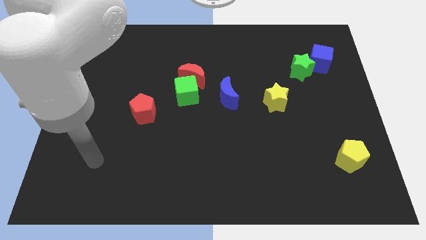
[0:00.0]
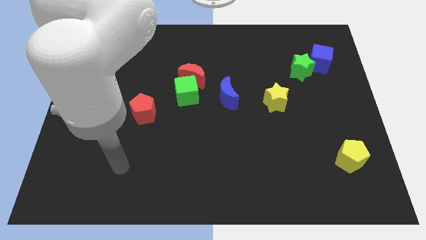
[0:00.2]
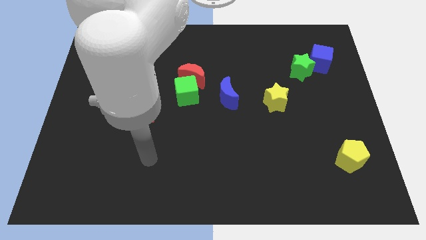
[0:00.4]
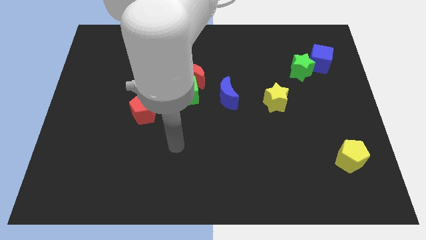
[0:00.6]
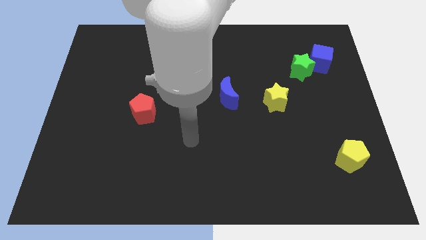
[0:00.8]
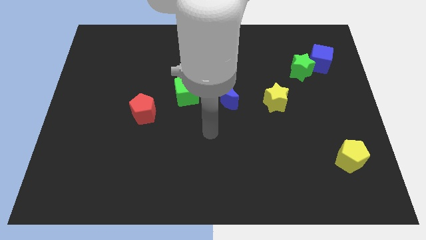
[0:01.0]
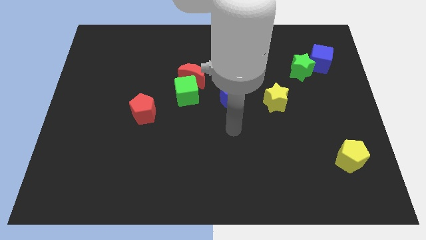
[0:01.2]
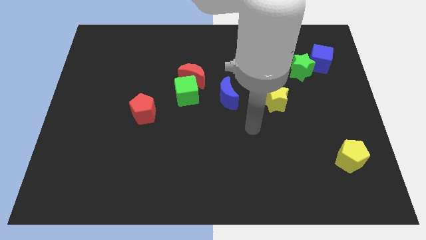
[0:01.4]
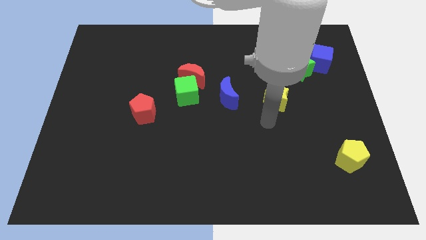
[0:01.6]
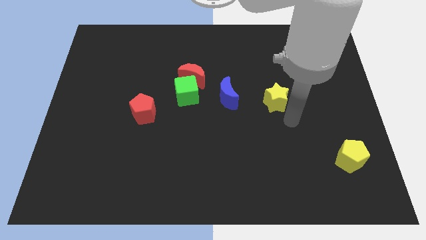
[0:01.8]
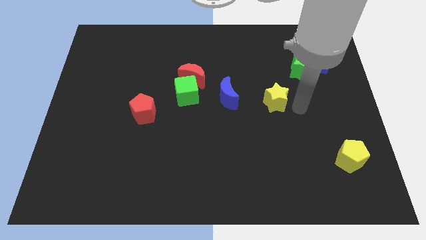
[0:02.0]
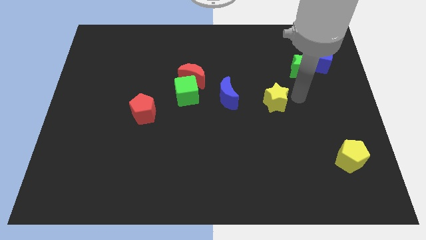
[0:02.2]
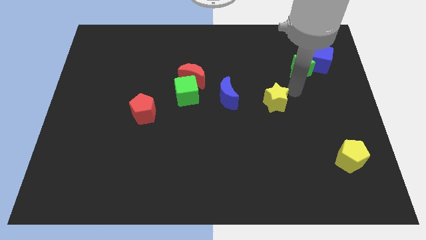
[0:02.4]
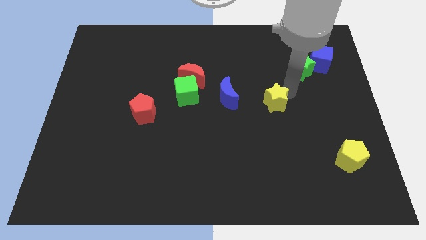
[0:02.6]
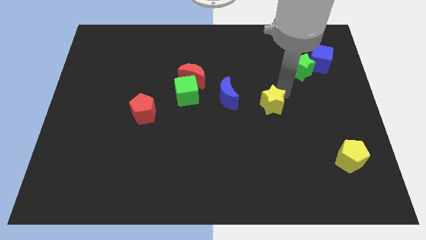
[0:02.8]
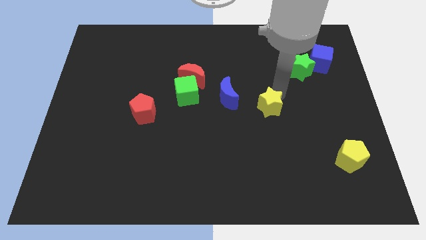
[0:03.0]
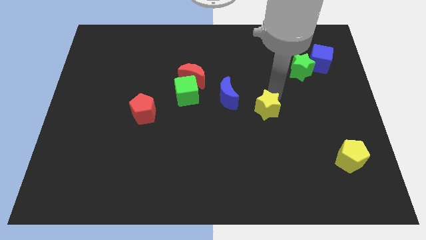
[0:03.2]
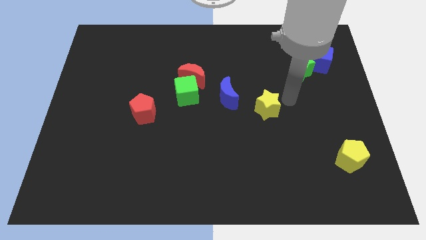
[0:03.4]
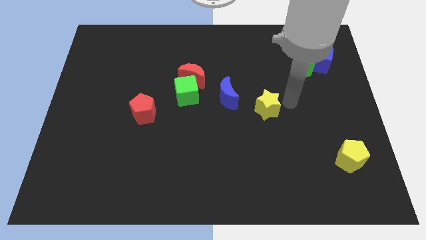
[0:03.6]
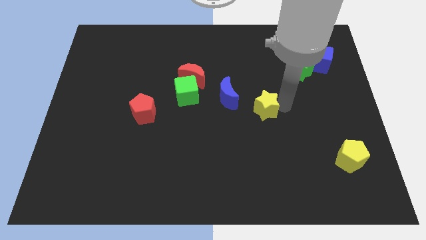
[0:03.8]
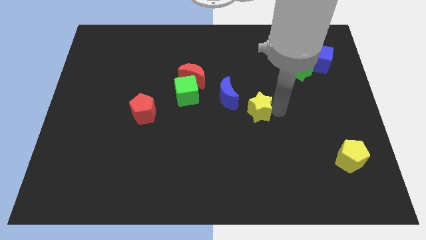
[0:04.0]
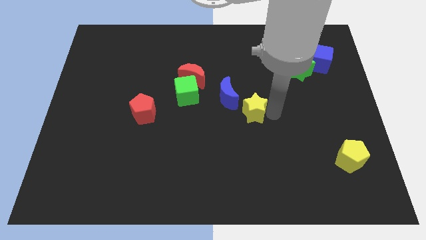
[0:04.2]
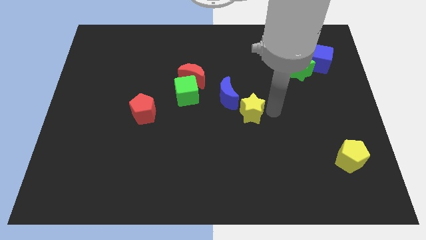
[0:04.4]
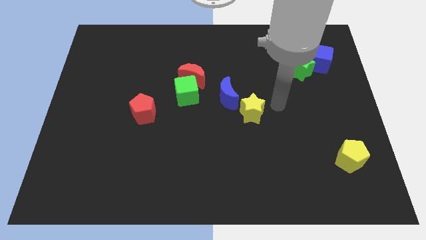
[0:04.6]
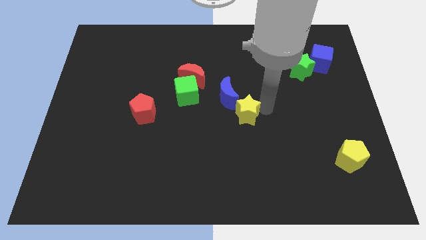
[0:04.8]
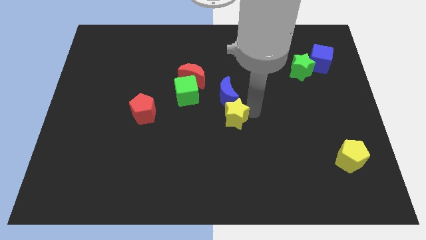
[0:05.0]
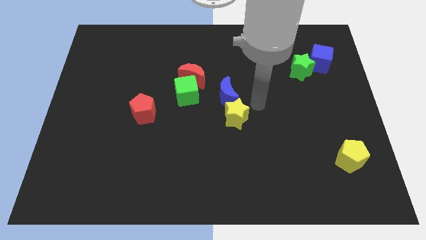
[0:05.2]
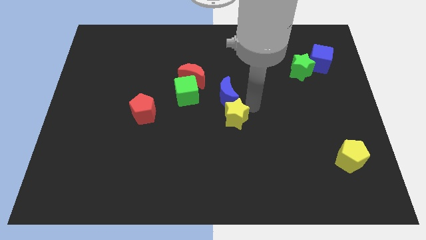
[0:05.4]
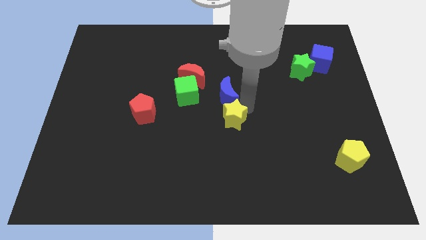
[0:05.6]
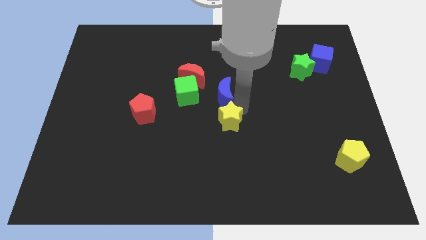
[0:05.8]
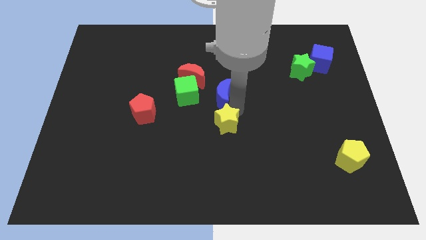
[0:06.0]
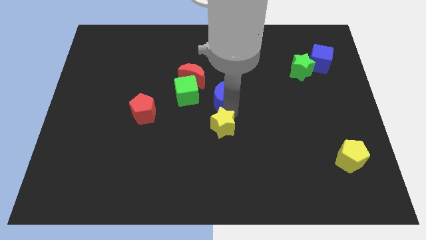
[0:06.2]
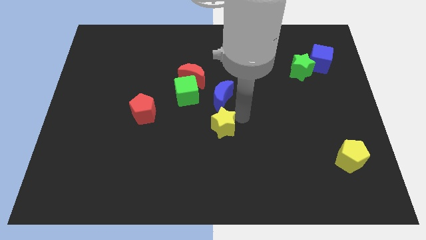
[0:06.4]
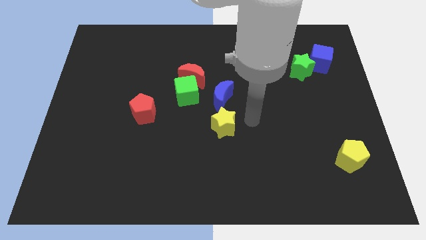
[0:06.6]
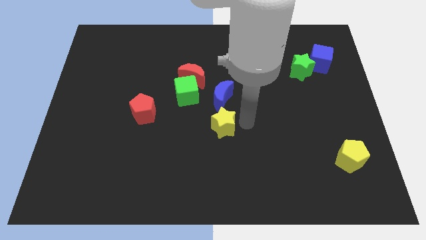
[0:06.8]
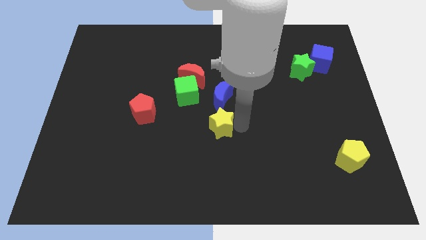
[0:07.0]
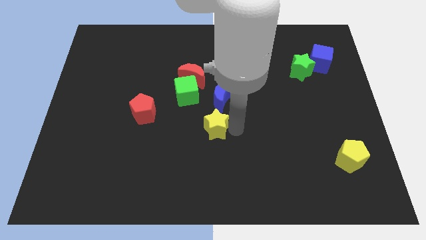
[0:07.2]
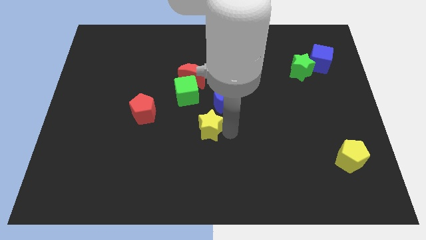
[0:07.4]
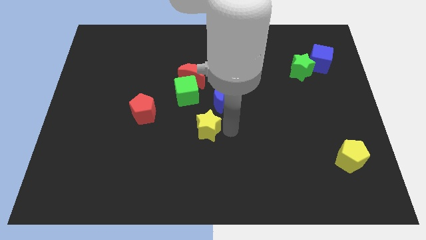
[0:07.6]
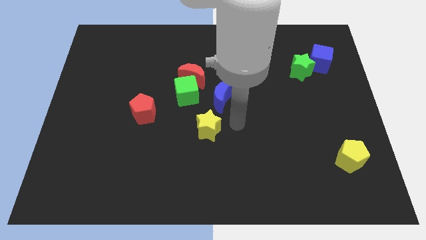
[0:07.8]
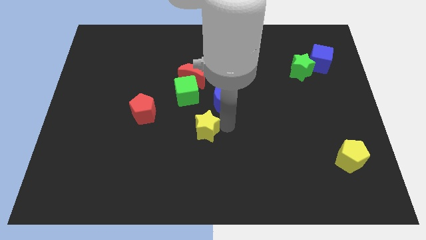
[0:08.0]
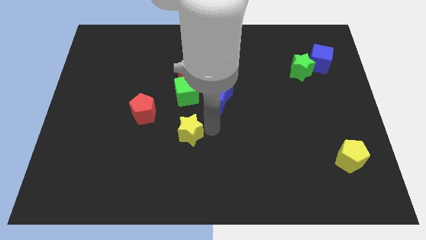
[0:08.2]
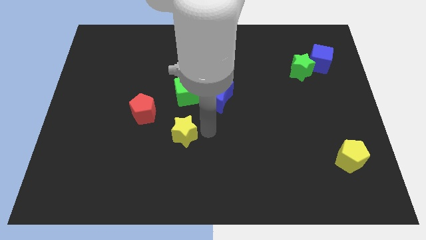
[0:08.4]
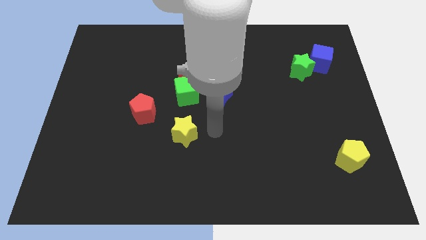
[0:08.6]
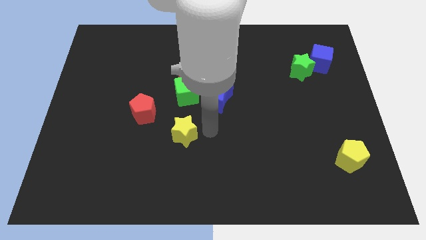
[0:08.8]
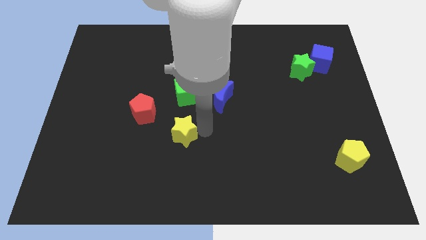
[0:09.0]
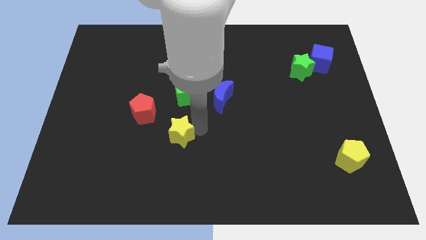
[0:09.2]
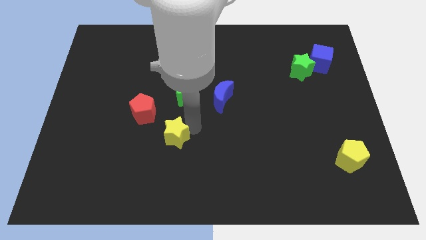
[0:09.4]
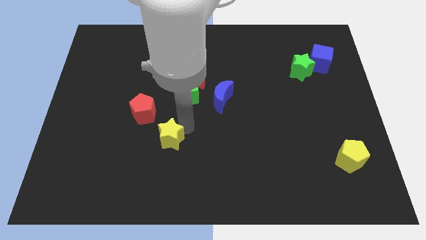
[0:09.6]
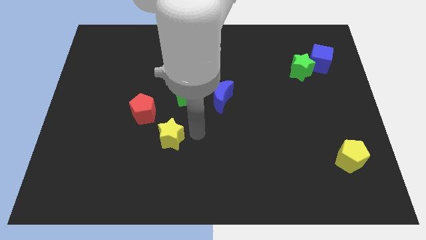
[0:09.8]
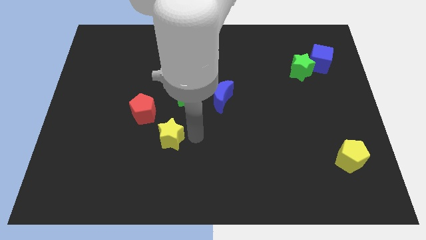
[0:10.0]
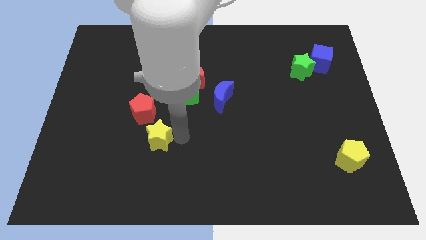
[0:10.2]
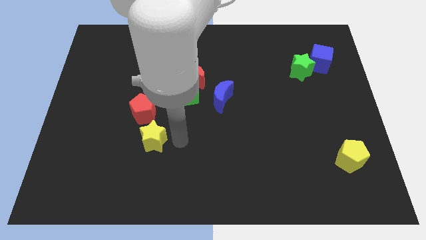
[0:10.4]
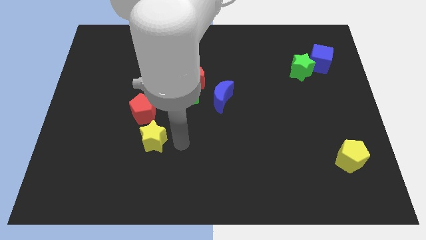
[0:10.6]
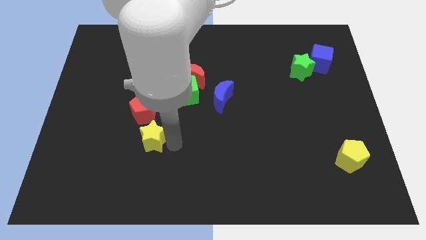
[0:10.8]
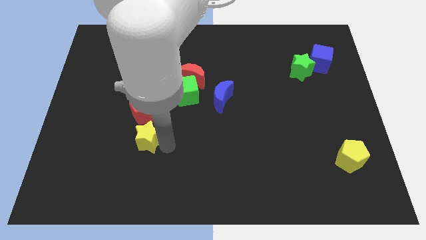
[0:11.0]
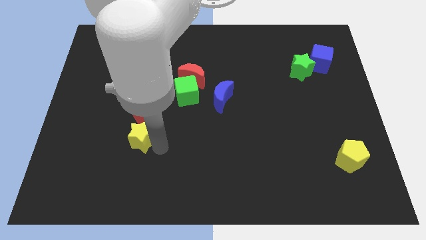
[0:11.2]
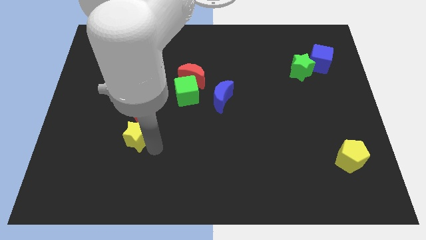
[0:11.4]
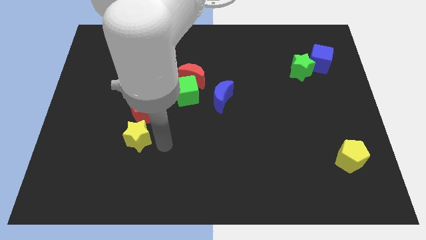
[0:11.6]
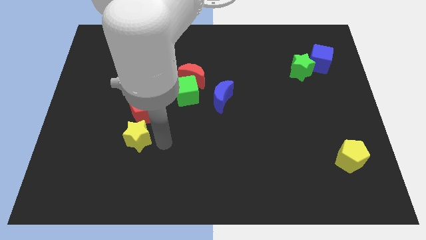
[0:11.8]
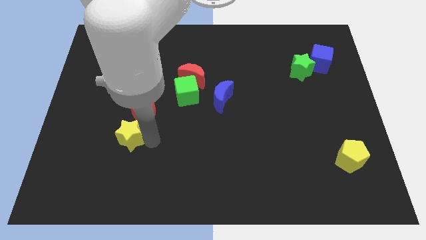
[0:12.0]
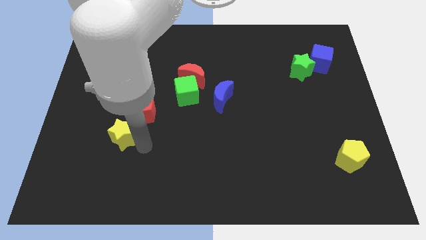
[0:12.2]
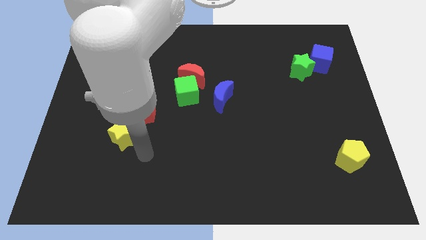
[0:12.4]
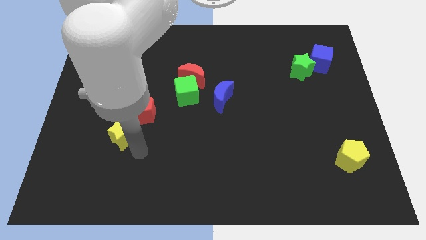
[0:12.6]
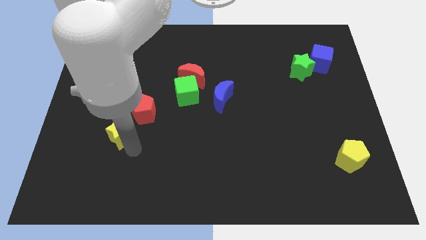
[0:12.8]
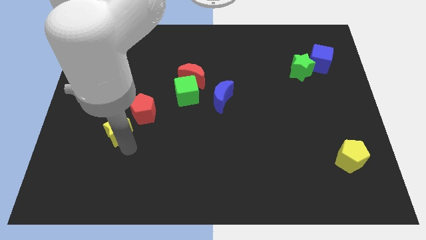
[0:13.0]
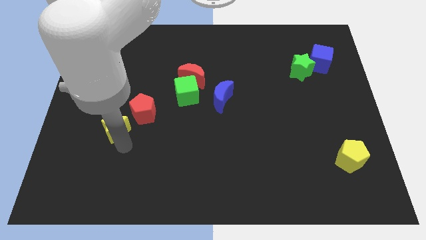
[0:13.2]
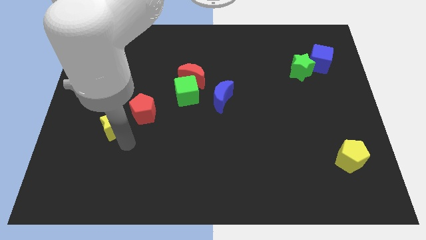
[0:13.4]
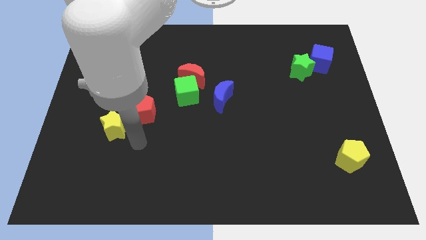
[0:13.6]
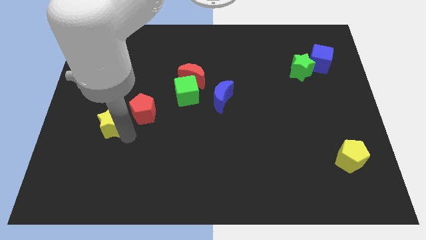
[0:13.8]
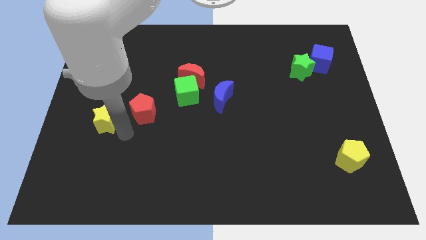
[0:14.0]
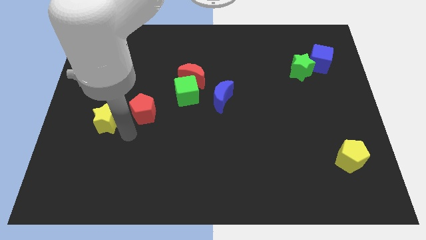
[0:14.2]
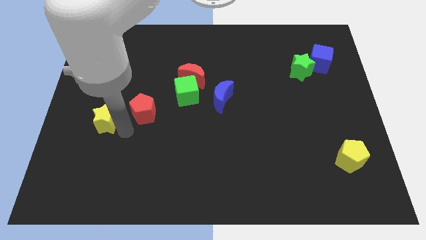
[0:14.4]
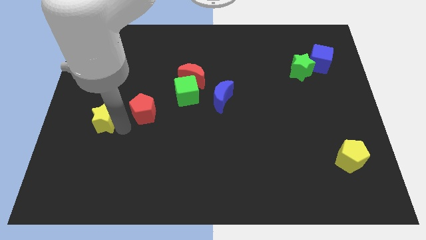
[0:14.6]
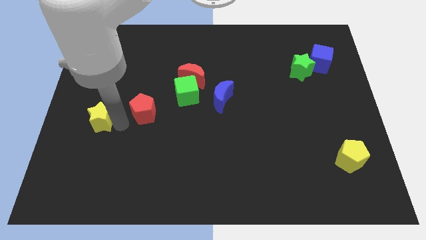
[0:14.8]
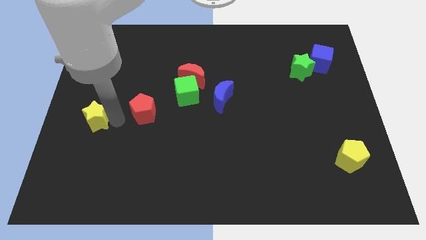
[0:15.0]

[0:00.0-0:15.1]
push the yellow star to the left side
